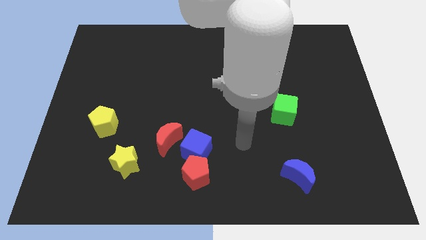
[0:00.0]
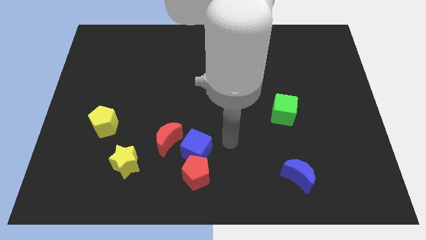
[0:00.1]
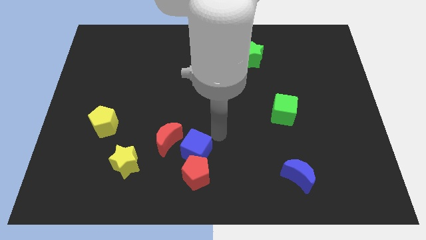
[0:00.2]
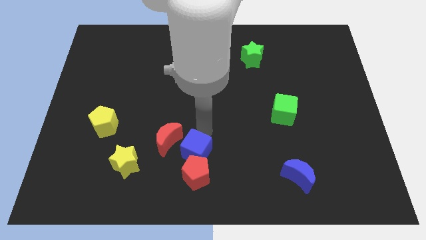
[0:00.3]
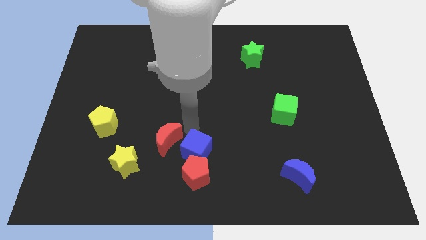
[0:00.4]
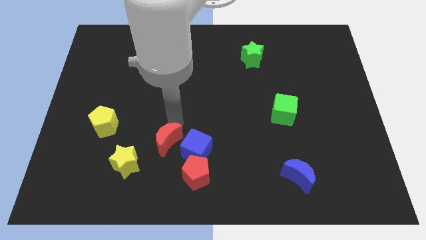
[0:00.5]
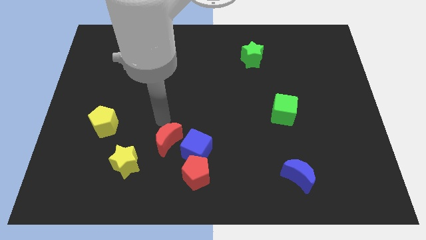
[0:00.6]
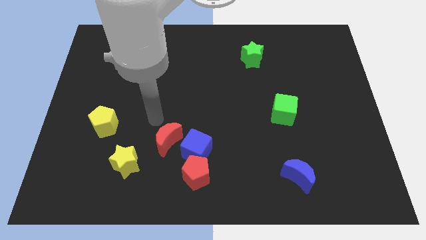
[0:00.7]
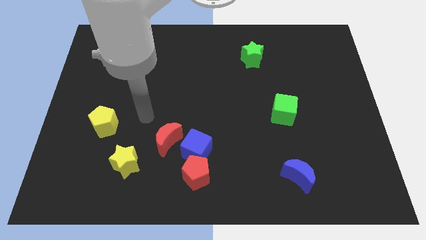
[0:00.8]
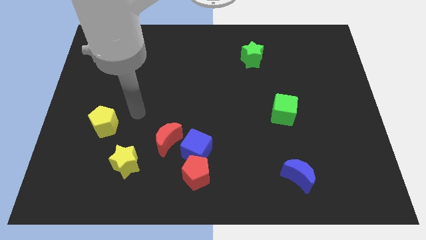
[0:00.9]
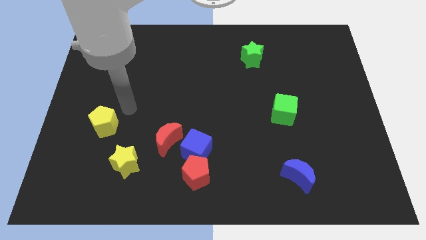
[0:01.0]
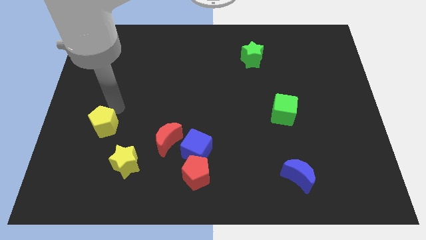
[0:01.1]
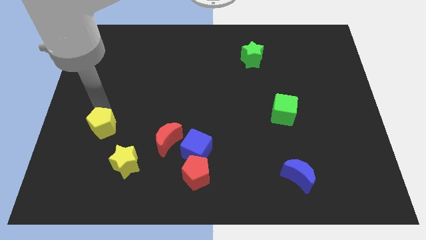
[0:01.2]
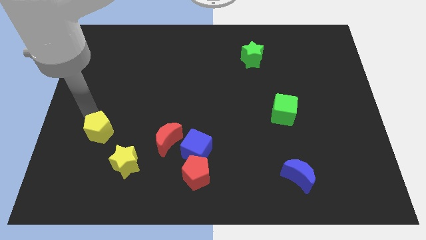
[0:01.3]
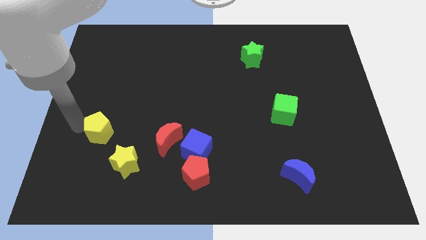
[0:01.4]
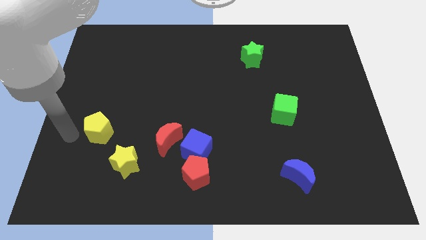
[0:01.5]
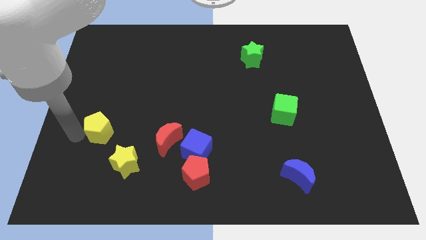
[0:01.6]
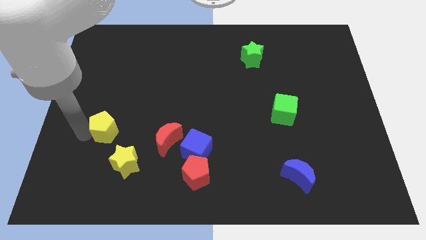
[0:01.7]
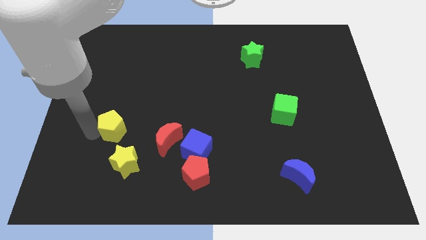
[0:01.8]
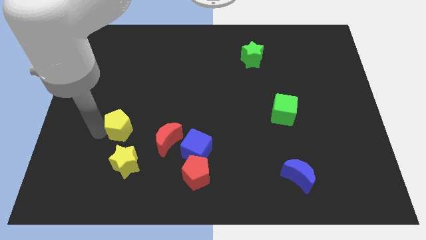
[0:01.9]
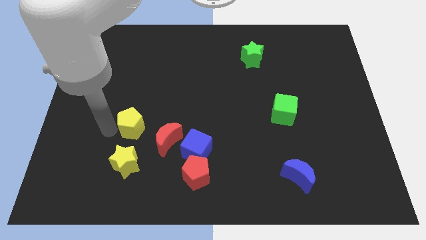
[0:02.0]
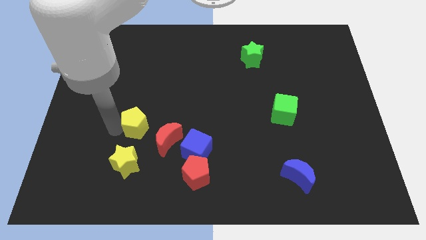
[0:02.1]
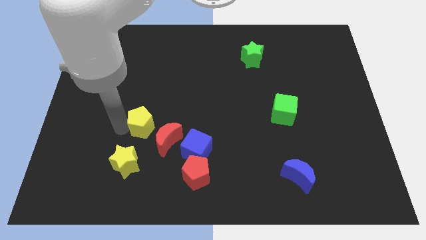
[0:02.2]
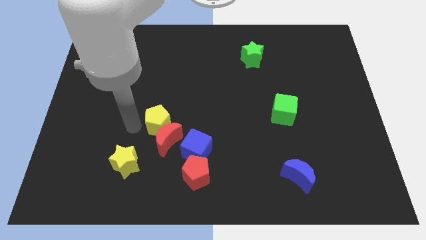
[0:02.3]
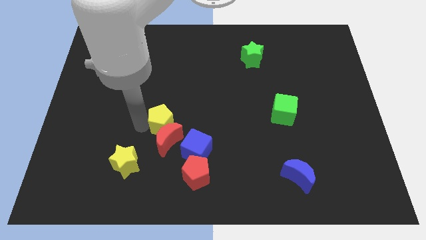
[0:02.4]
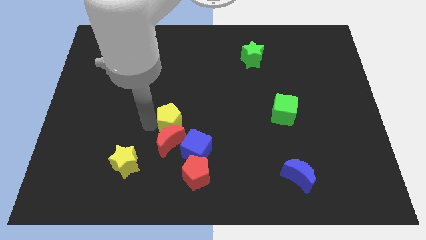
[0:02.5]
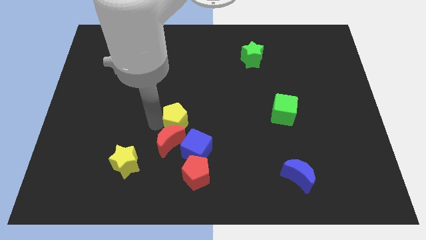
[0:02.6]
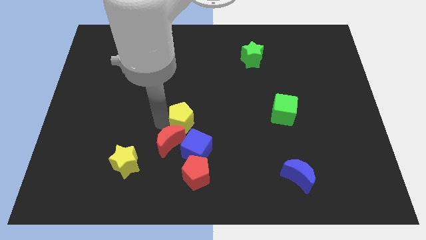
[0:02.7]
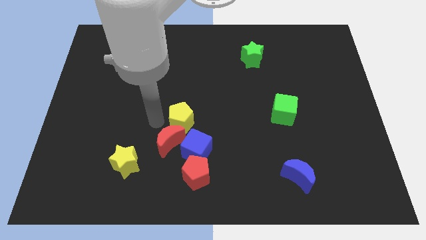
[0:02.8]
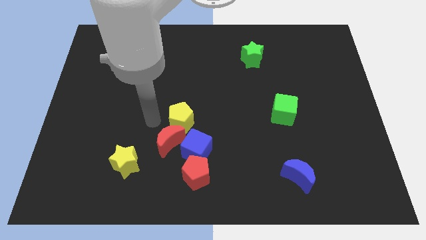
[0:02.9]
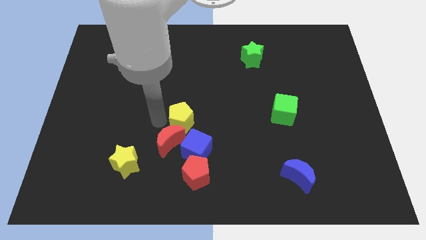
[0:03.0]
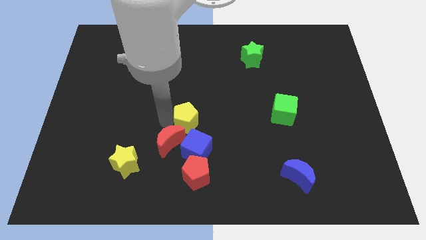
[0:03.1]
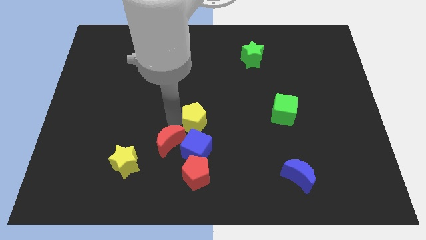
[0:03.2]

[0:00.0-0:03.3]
push the yellow pentagon to the right

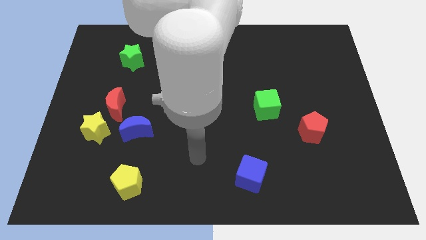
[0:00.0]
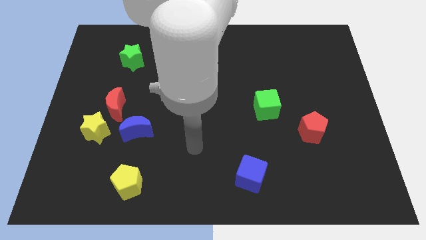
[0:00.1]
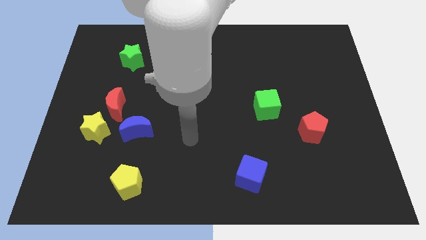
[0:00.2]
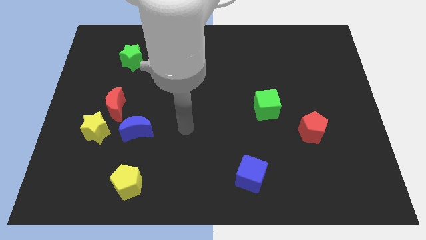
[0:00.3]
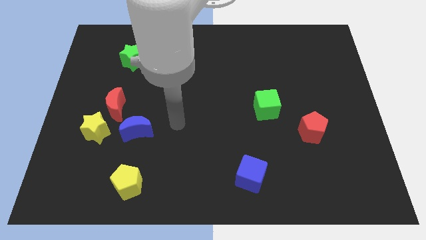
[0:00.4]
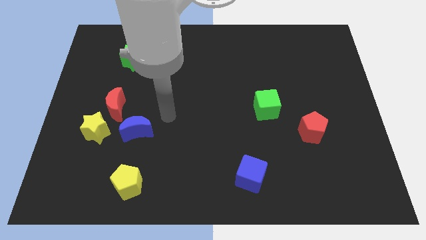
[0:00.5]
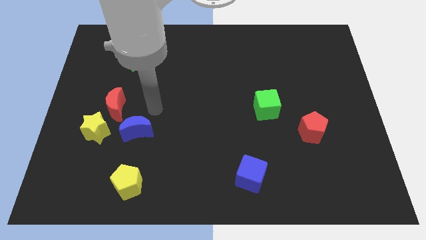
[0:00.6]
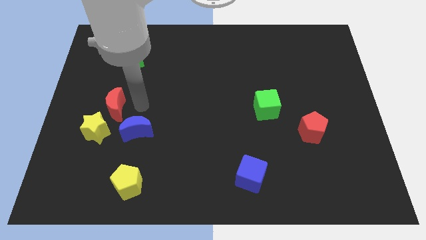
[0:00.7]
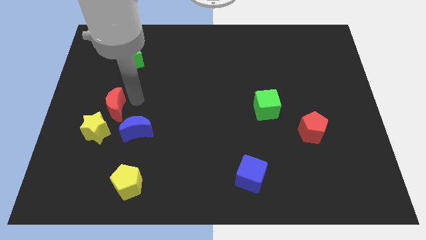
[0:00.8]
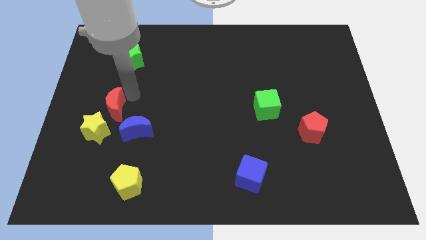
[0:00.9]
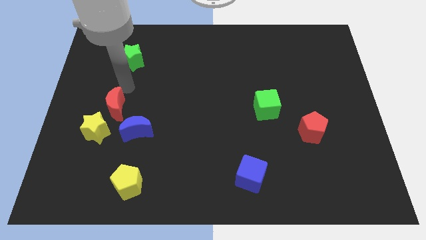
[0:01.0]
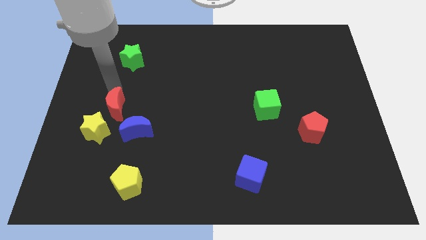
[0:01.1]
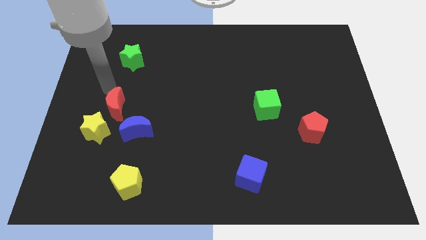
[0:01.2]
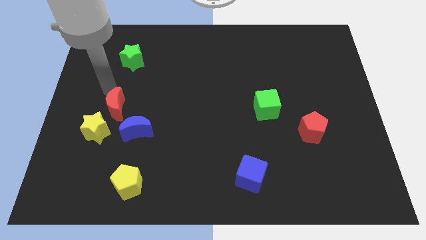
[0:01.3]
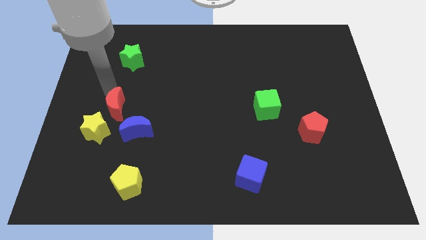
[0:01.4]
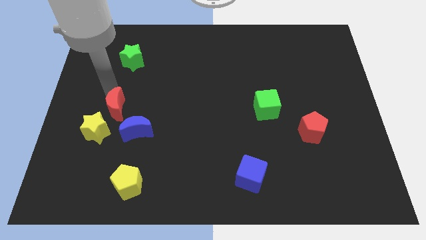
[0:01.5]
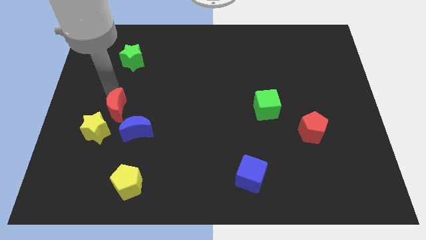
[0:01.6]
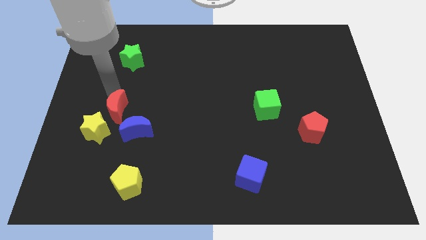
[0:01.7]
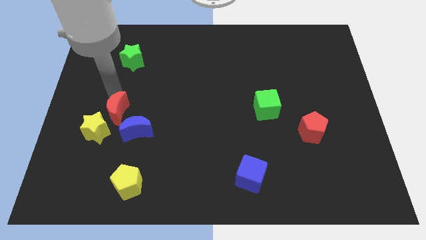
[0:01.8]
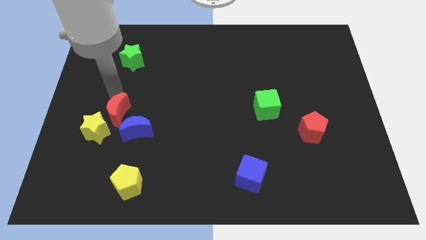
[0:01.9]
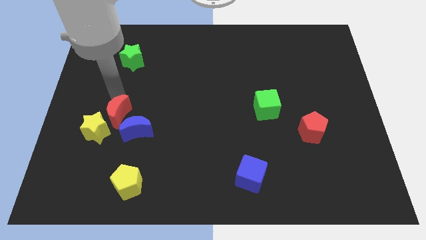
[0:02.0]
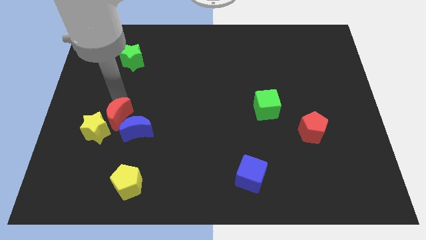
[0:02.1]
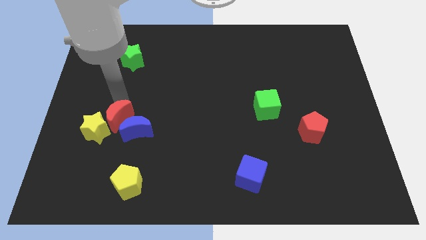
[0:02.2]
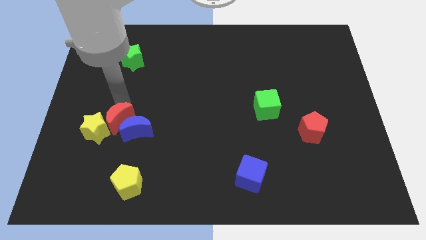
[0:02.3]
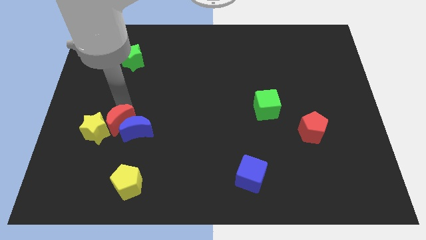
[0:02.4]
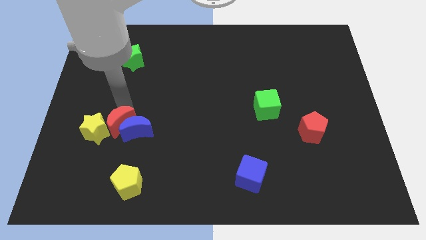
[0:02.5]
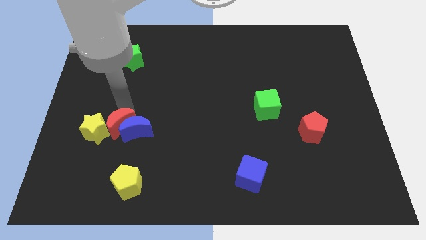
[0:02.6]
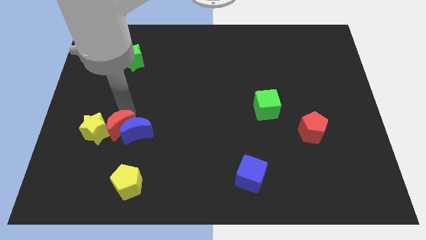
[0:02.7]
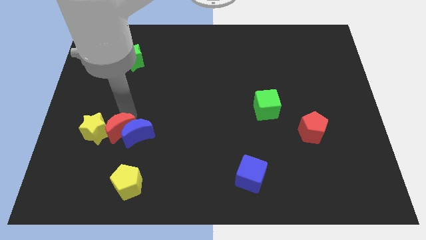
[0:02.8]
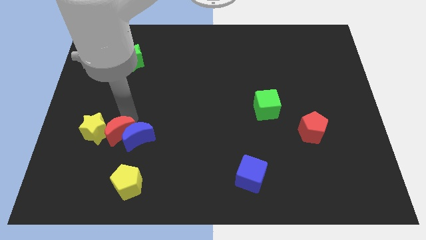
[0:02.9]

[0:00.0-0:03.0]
push the red moon downwards somewhat

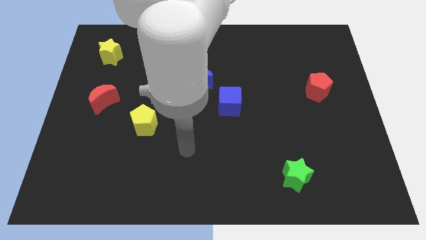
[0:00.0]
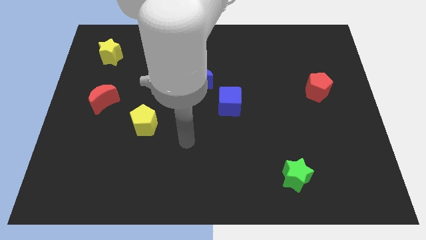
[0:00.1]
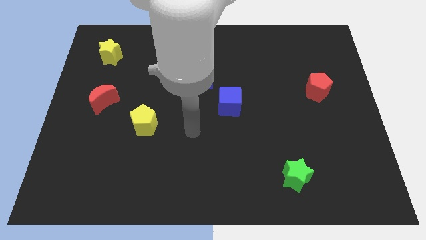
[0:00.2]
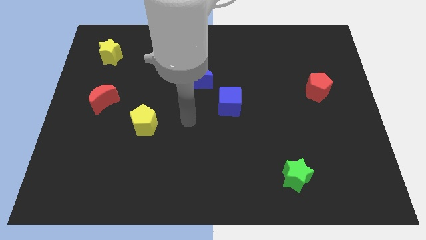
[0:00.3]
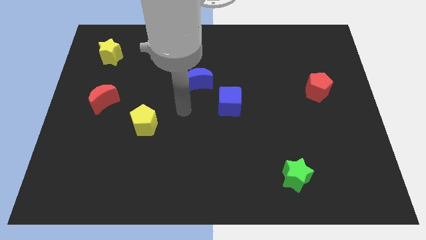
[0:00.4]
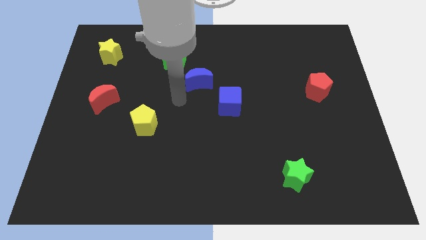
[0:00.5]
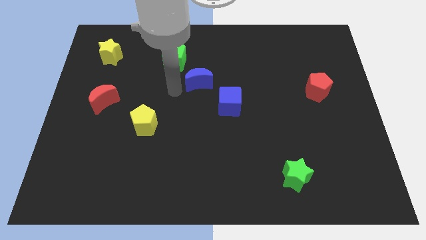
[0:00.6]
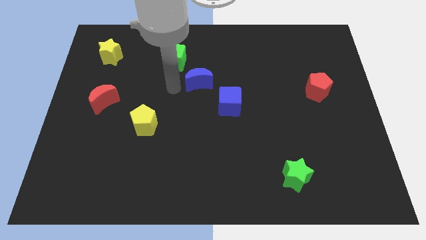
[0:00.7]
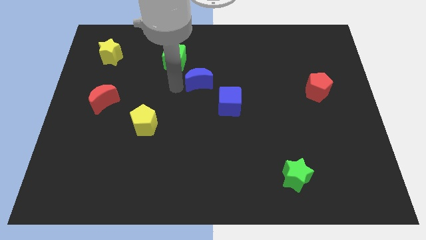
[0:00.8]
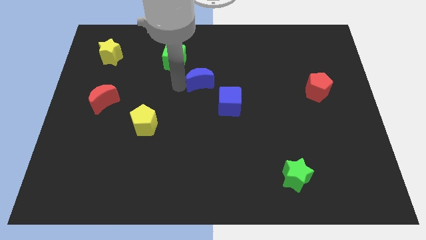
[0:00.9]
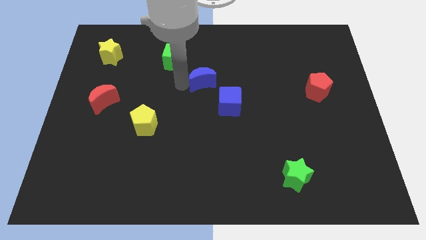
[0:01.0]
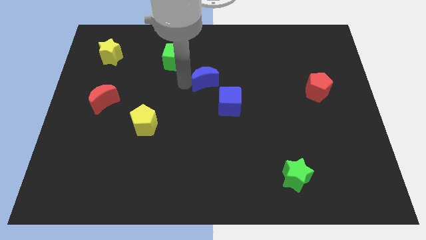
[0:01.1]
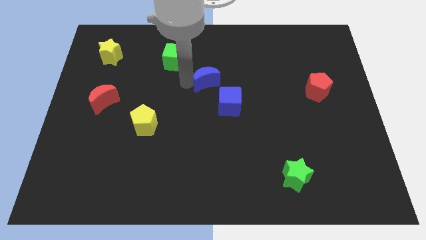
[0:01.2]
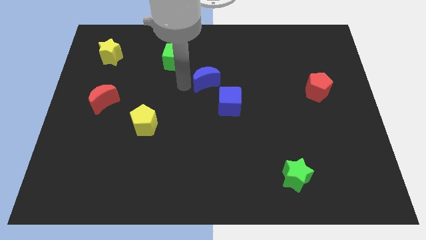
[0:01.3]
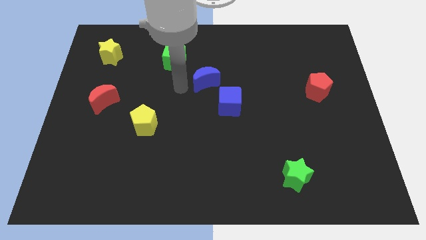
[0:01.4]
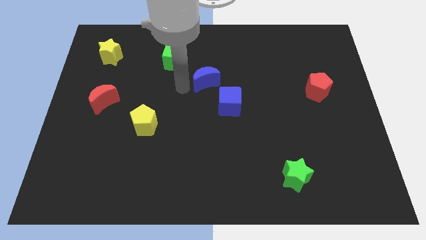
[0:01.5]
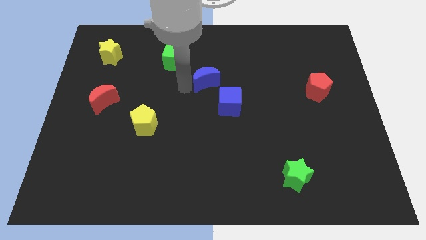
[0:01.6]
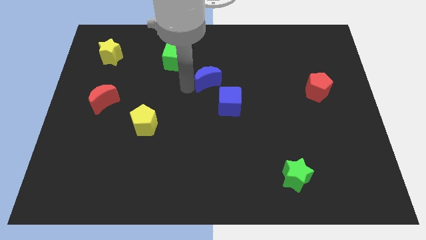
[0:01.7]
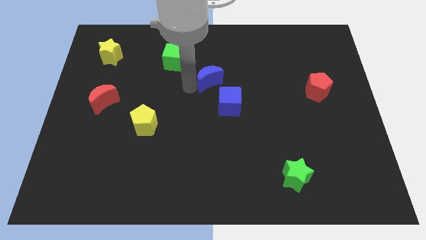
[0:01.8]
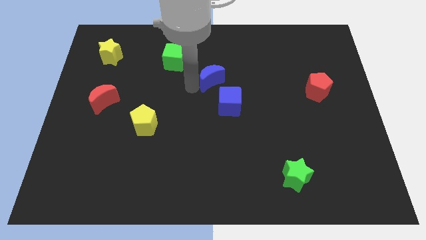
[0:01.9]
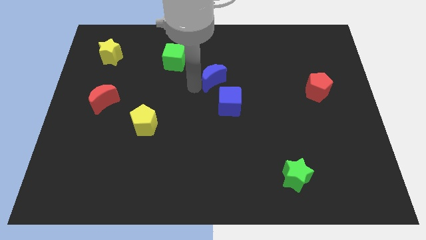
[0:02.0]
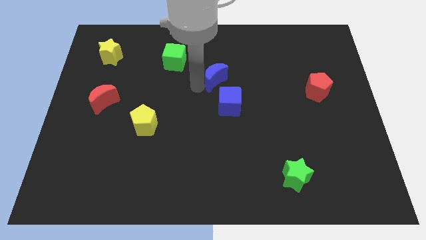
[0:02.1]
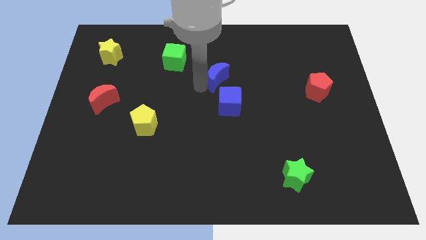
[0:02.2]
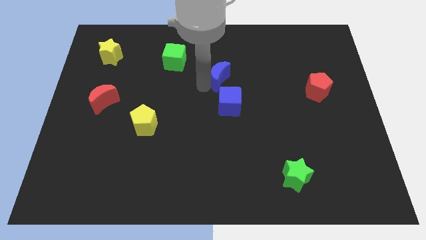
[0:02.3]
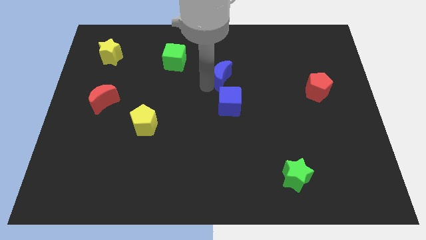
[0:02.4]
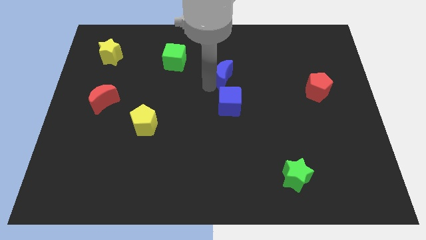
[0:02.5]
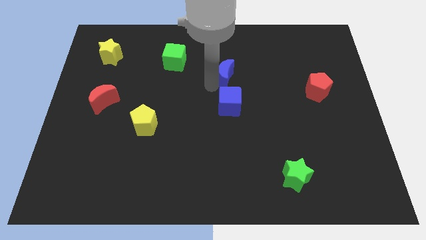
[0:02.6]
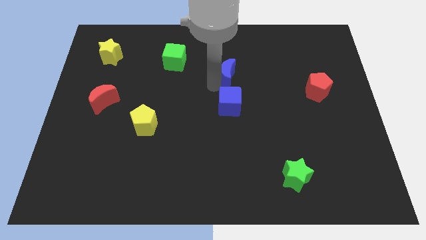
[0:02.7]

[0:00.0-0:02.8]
move the blue moon right a little bit
